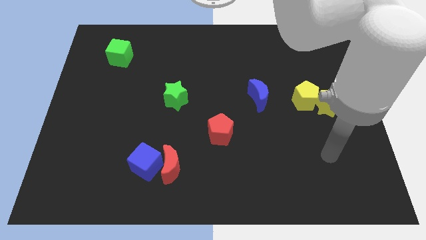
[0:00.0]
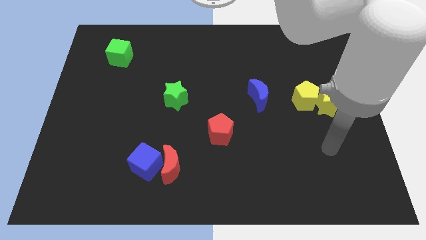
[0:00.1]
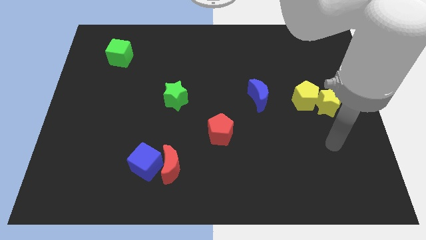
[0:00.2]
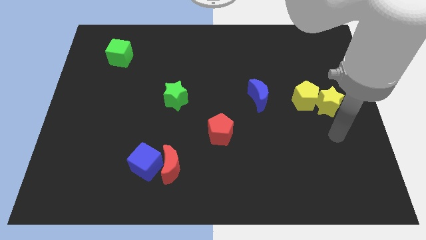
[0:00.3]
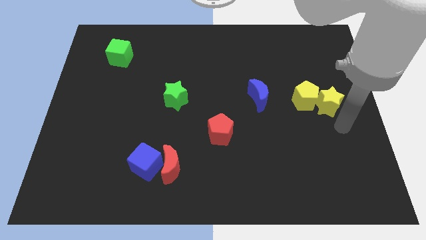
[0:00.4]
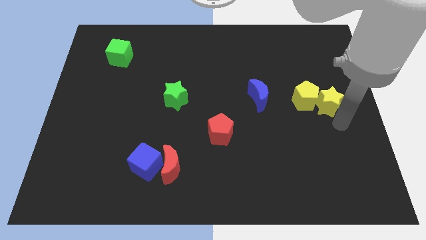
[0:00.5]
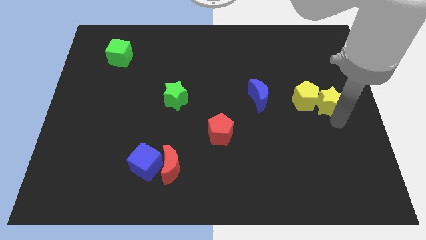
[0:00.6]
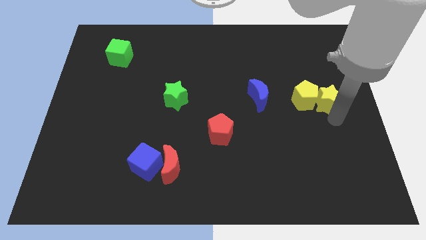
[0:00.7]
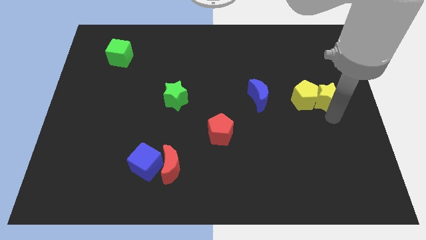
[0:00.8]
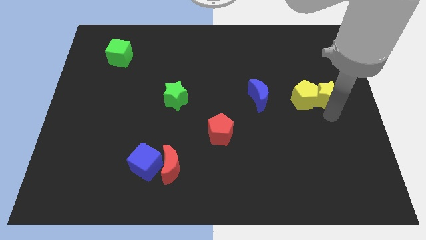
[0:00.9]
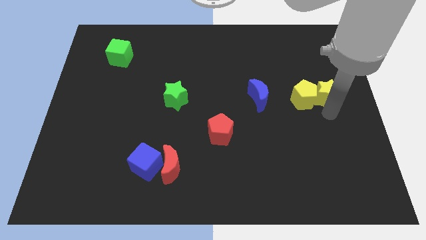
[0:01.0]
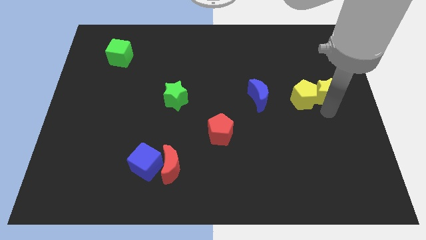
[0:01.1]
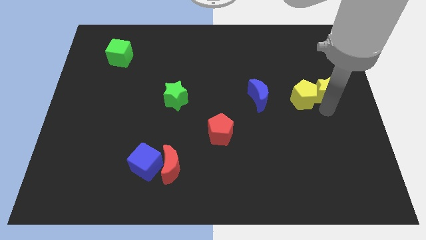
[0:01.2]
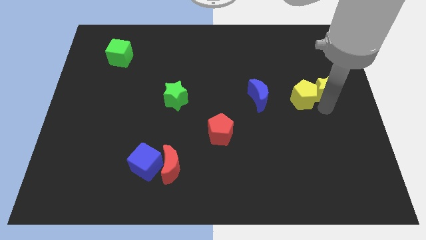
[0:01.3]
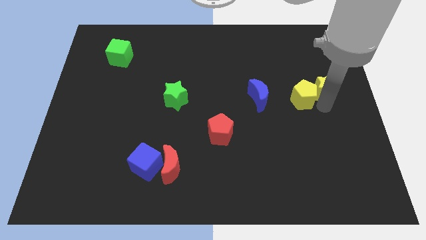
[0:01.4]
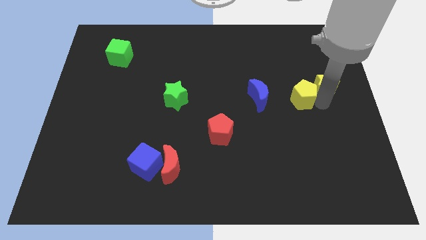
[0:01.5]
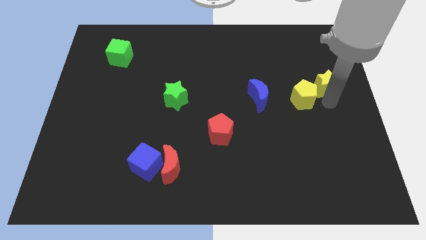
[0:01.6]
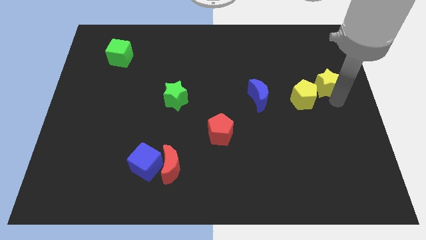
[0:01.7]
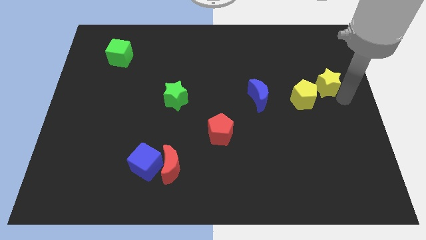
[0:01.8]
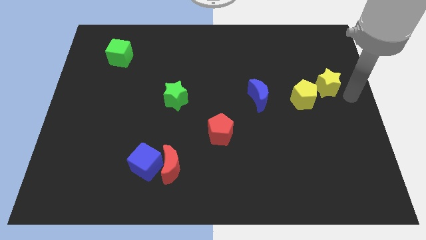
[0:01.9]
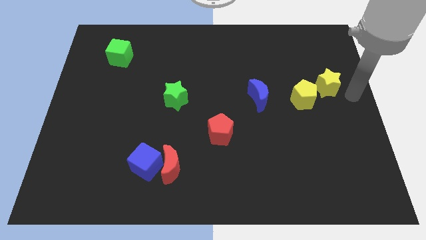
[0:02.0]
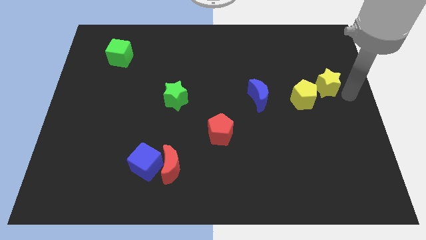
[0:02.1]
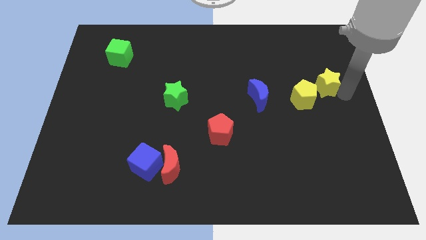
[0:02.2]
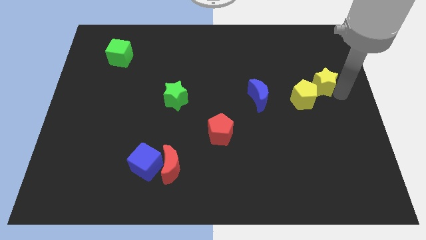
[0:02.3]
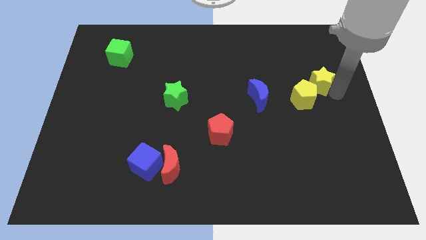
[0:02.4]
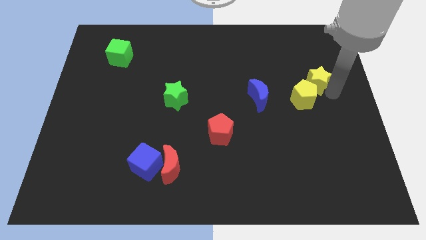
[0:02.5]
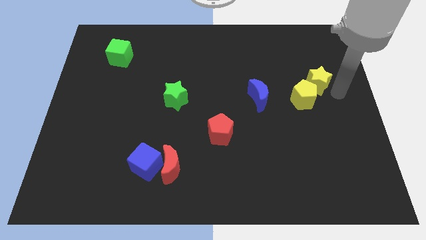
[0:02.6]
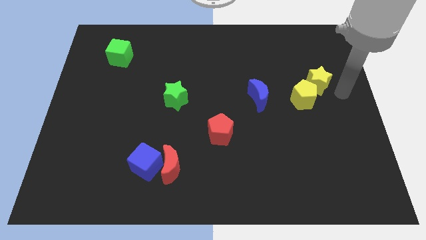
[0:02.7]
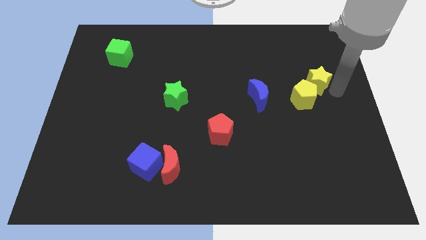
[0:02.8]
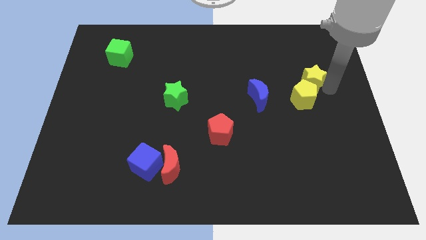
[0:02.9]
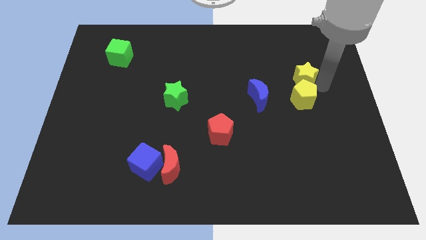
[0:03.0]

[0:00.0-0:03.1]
slightly push the yellow star diagonally up and to the left

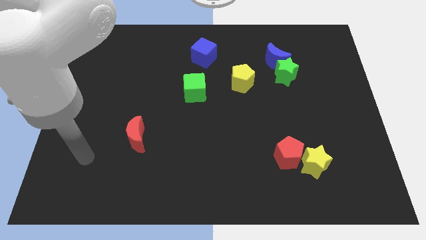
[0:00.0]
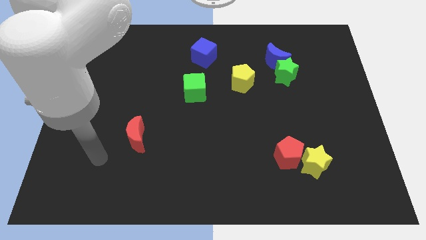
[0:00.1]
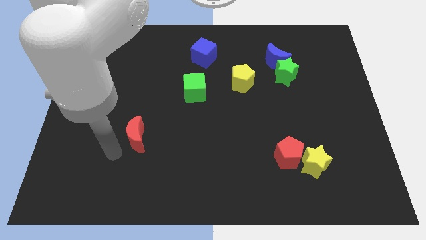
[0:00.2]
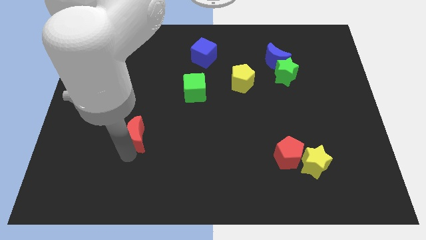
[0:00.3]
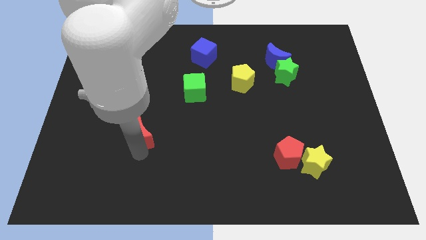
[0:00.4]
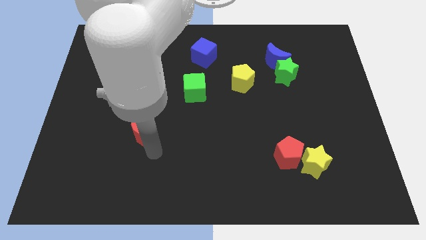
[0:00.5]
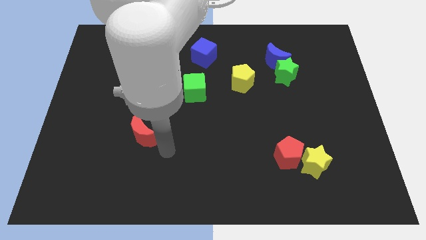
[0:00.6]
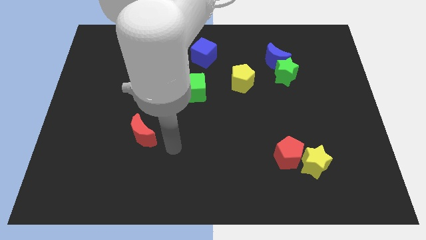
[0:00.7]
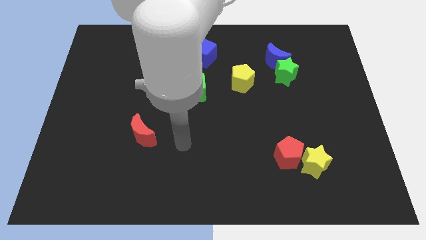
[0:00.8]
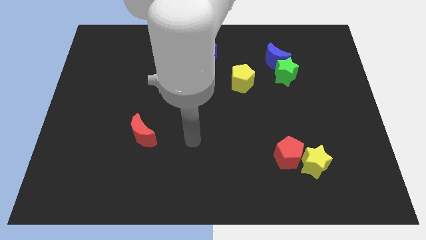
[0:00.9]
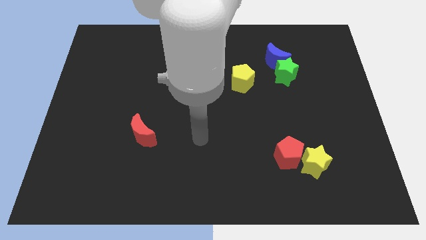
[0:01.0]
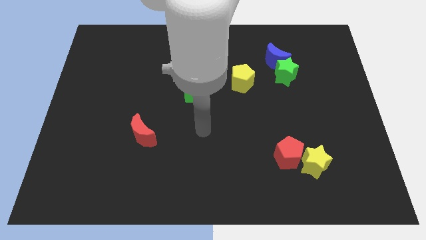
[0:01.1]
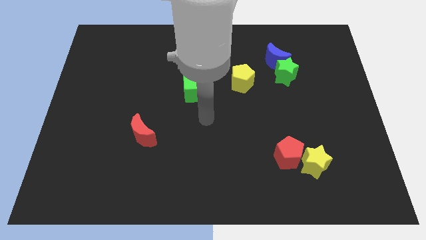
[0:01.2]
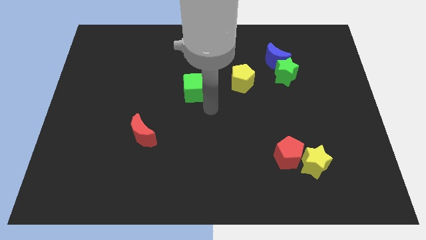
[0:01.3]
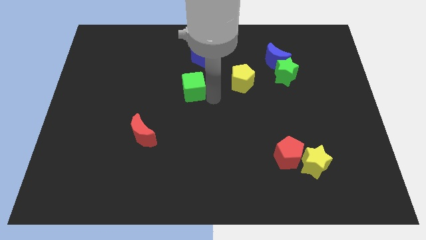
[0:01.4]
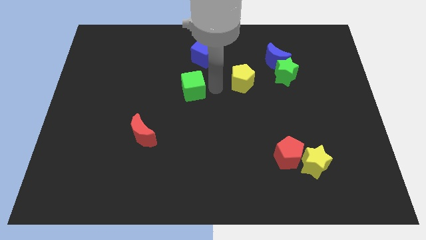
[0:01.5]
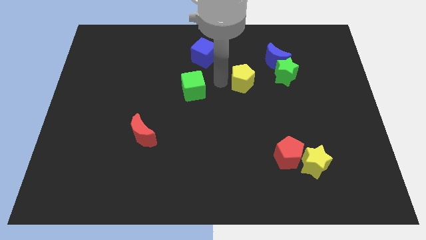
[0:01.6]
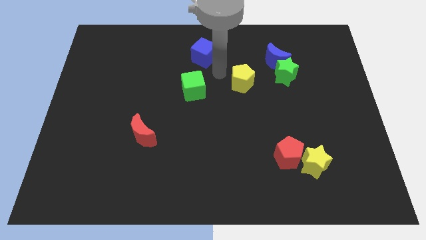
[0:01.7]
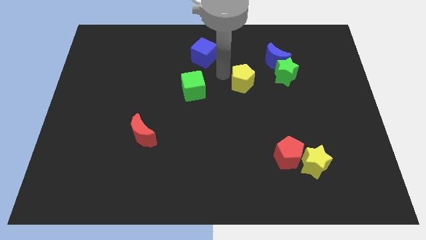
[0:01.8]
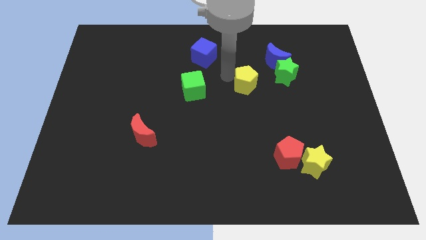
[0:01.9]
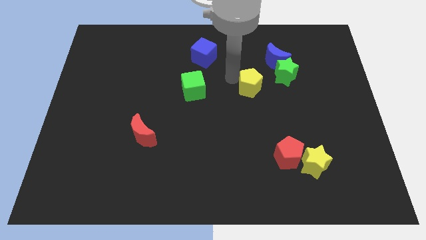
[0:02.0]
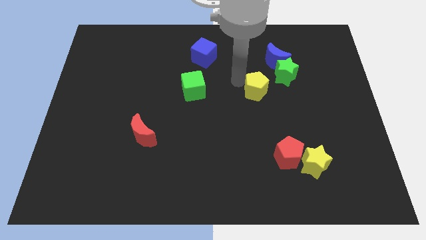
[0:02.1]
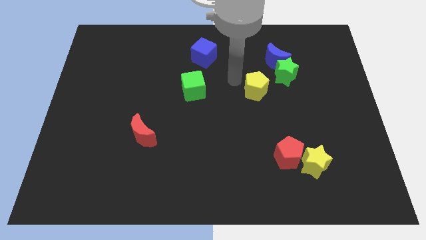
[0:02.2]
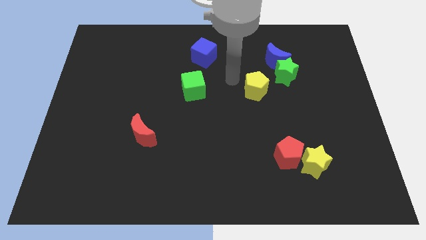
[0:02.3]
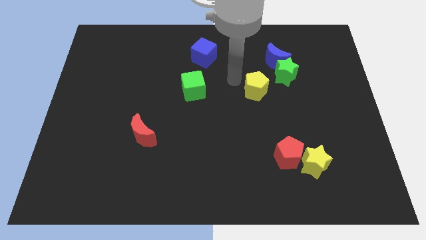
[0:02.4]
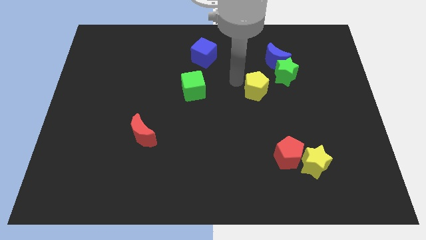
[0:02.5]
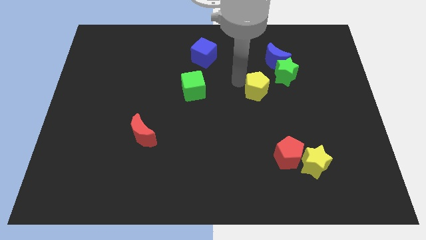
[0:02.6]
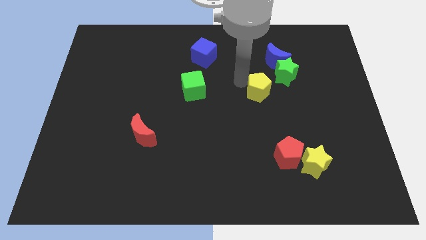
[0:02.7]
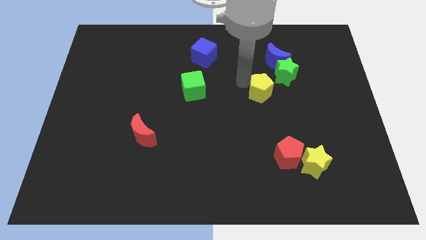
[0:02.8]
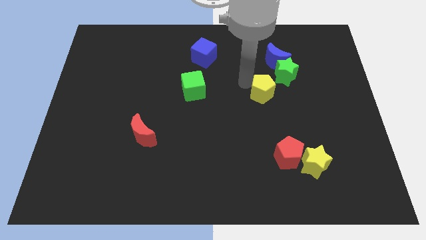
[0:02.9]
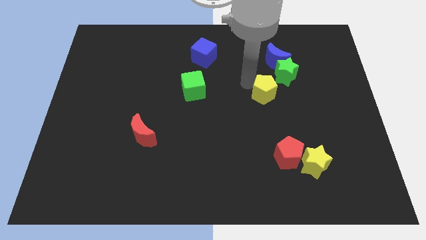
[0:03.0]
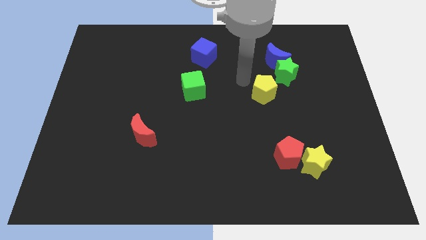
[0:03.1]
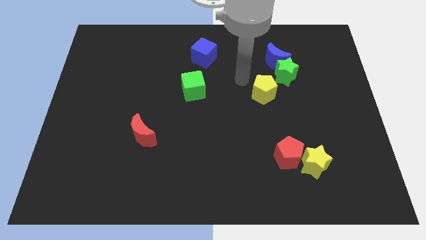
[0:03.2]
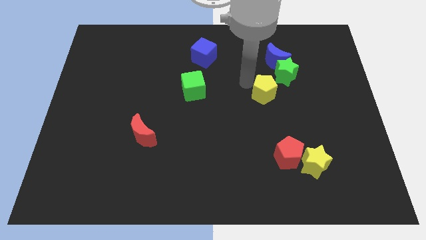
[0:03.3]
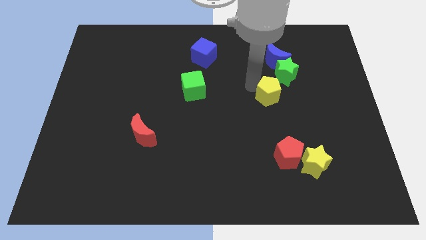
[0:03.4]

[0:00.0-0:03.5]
slide the yellow pentagon diagonally down and to the right slightly

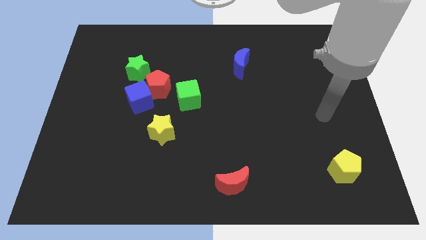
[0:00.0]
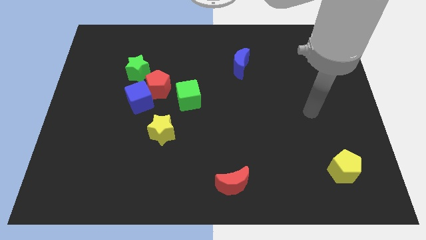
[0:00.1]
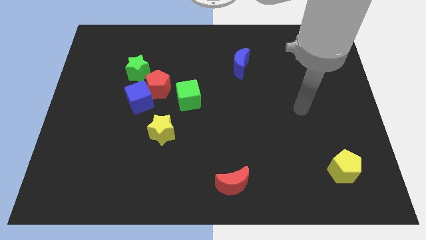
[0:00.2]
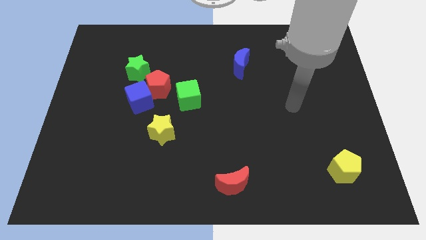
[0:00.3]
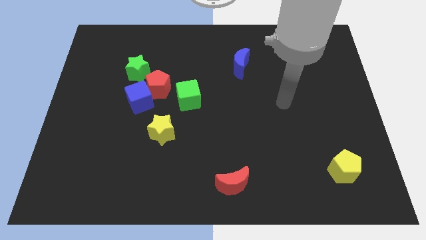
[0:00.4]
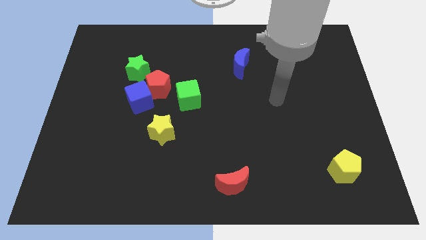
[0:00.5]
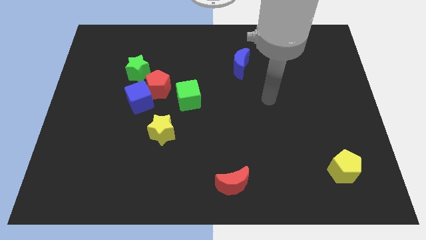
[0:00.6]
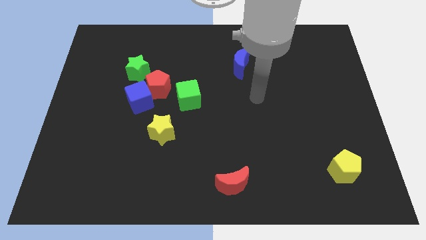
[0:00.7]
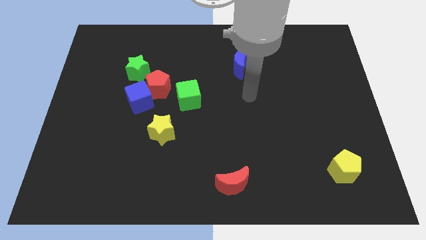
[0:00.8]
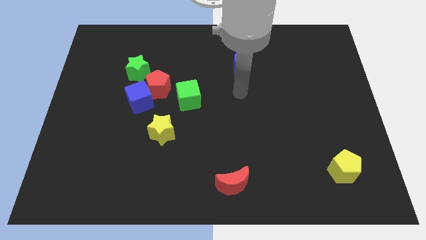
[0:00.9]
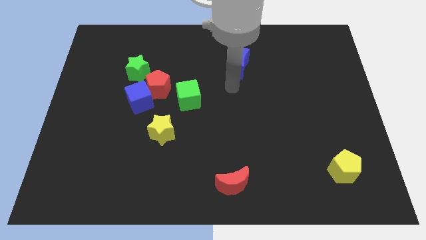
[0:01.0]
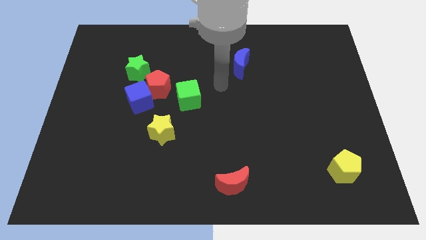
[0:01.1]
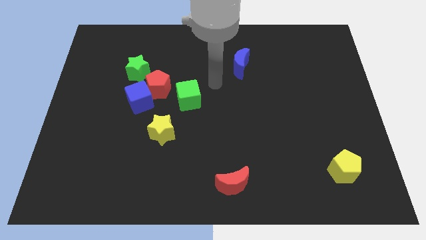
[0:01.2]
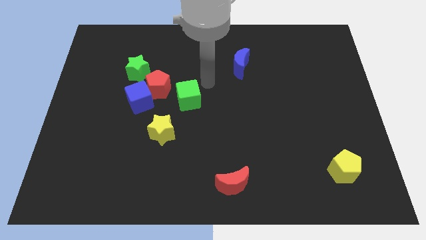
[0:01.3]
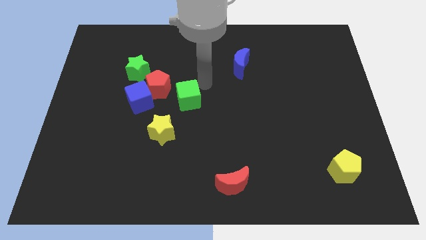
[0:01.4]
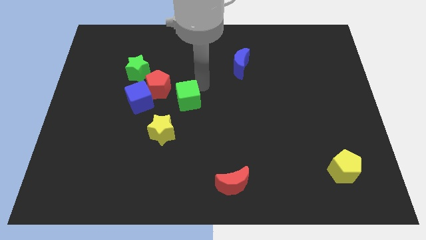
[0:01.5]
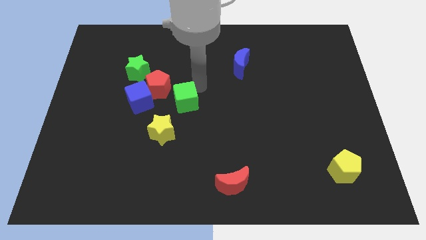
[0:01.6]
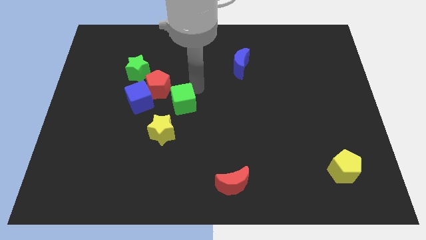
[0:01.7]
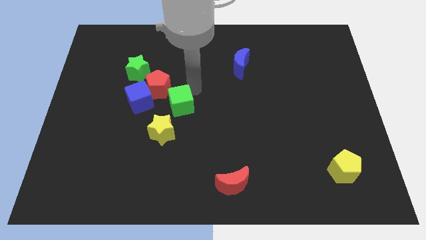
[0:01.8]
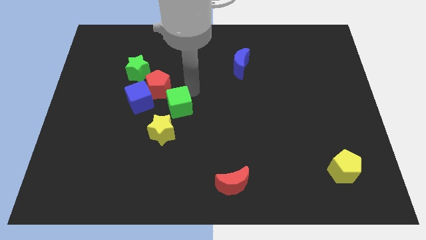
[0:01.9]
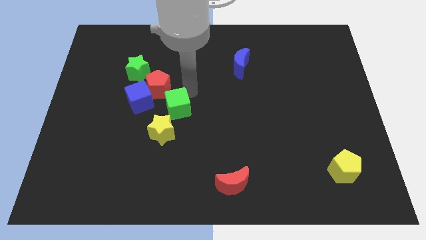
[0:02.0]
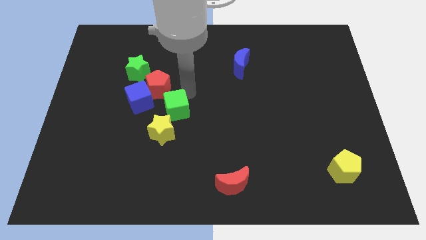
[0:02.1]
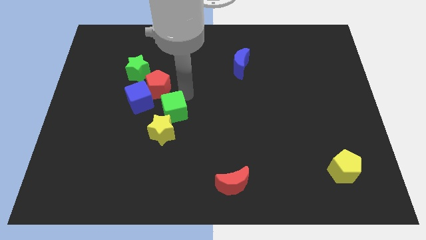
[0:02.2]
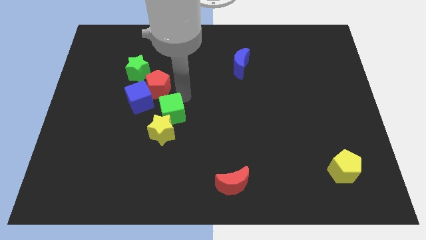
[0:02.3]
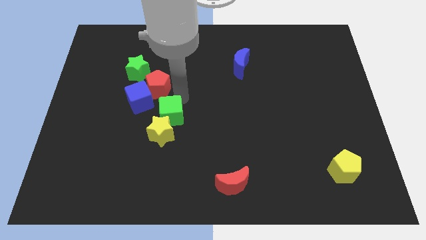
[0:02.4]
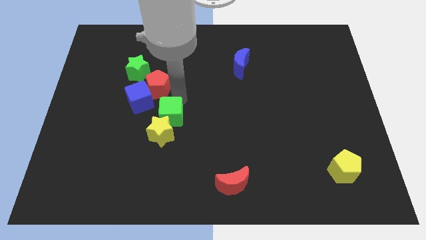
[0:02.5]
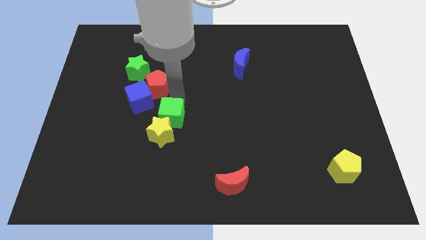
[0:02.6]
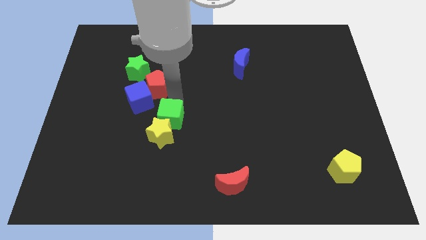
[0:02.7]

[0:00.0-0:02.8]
push the green cube slightly down and to the left diagonally
